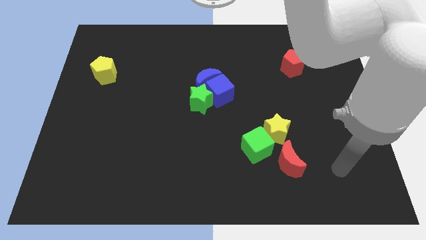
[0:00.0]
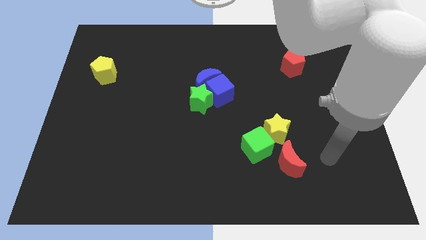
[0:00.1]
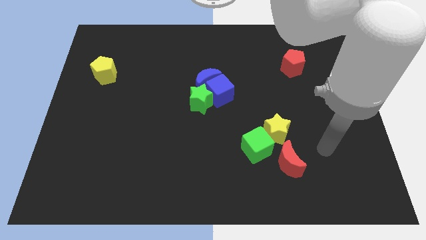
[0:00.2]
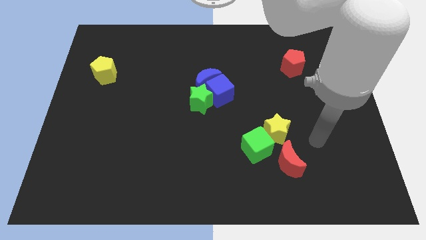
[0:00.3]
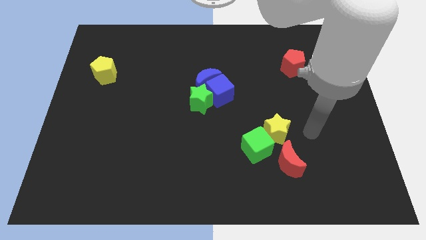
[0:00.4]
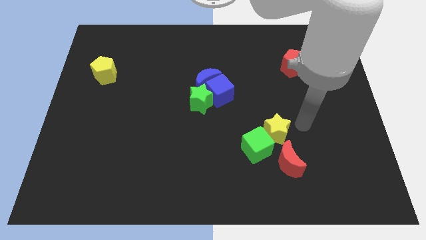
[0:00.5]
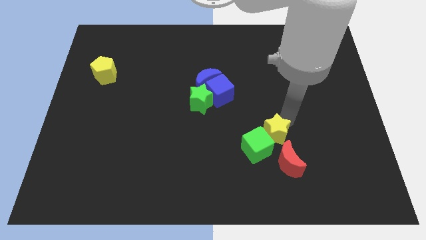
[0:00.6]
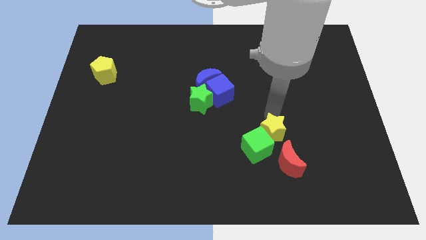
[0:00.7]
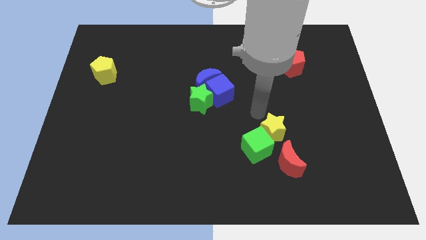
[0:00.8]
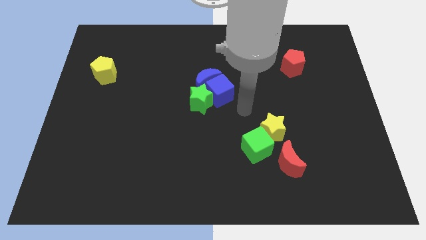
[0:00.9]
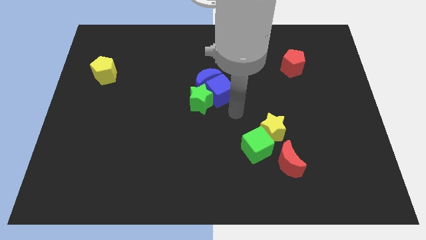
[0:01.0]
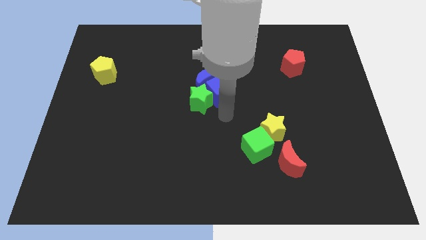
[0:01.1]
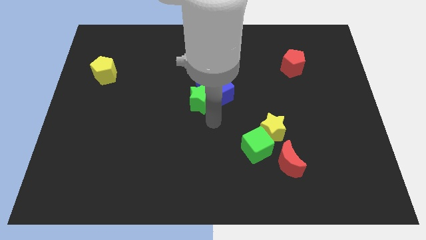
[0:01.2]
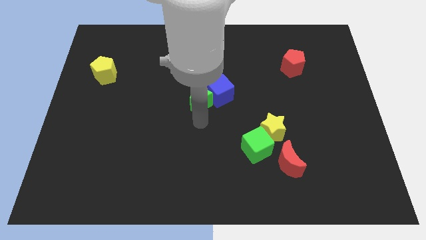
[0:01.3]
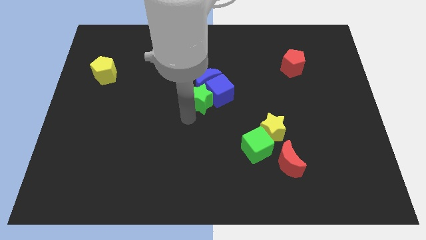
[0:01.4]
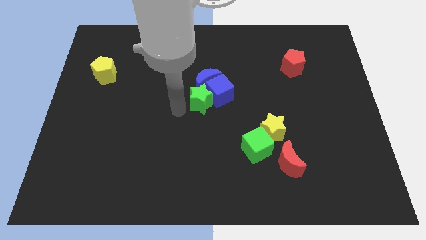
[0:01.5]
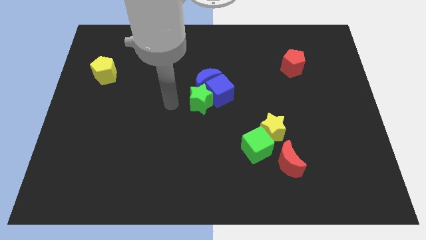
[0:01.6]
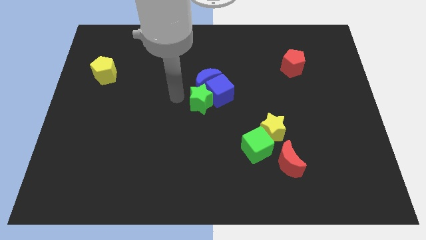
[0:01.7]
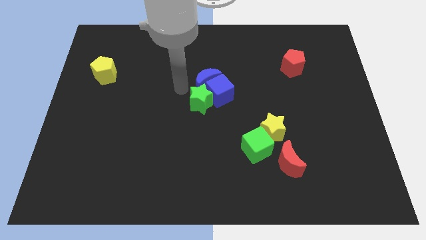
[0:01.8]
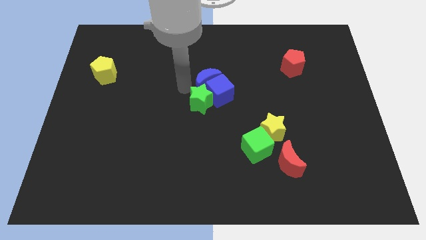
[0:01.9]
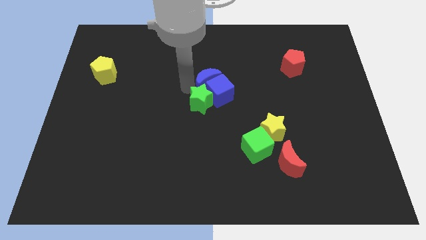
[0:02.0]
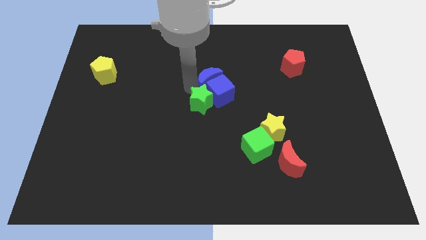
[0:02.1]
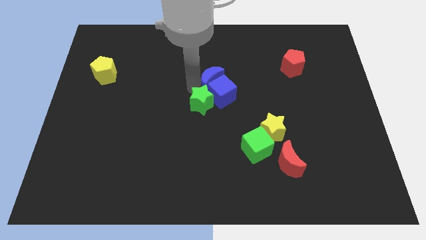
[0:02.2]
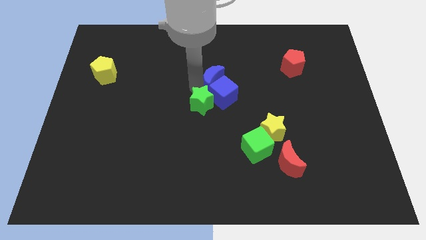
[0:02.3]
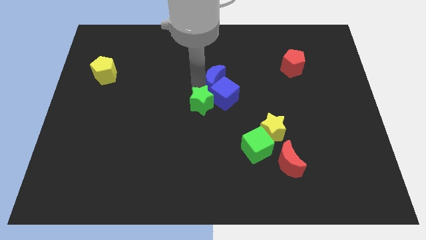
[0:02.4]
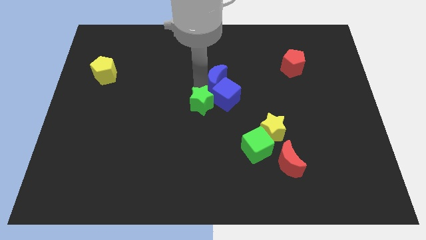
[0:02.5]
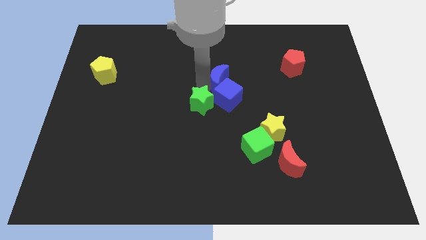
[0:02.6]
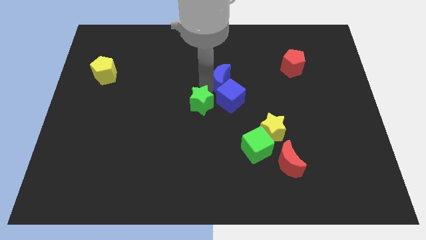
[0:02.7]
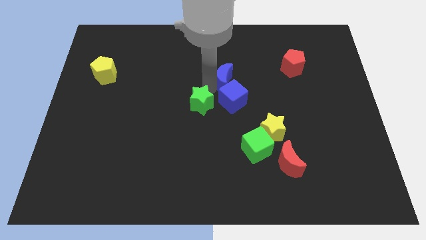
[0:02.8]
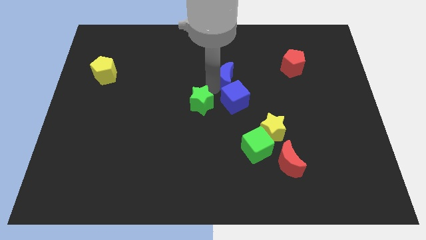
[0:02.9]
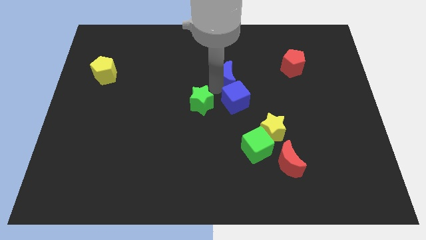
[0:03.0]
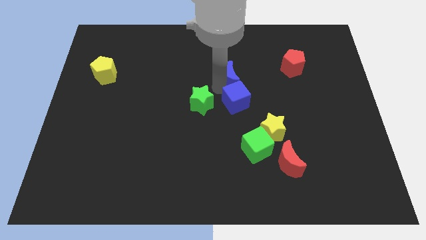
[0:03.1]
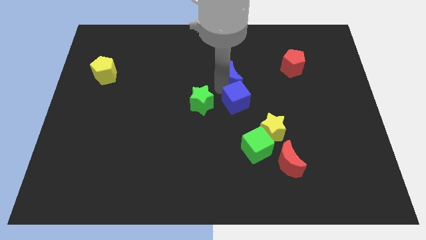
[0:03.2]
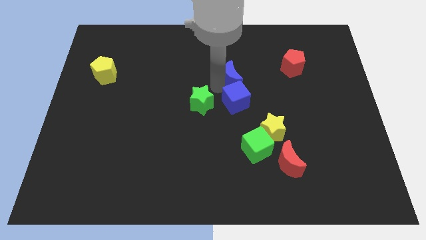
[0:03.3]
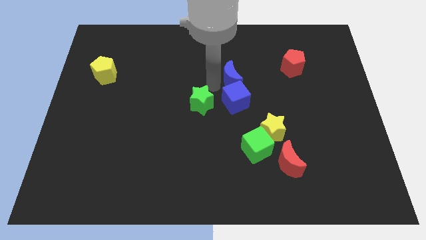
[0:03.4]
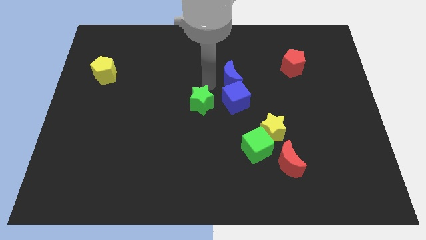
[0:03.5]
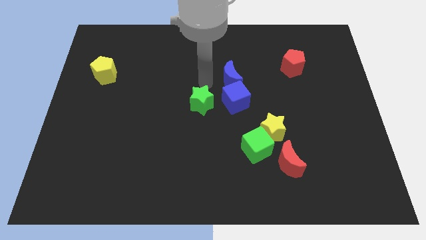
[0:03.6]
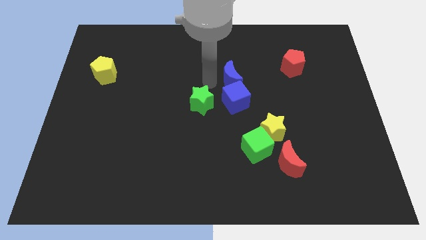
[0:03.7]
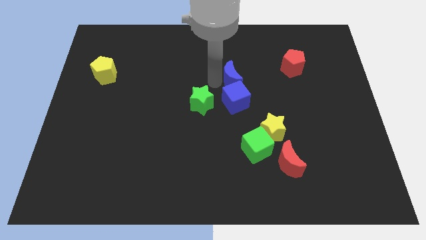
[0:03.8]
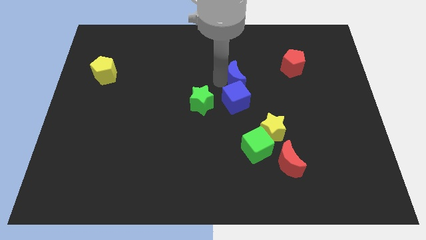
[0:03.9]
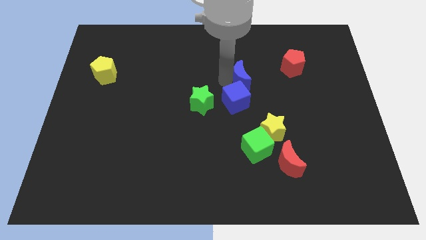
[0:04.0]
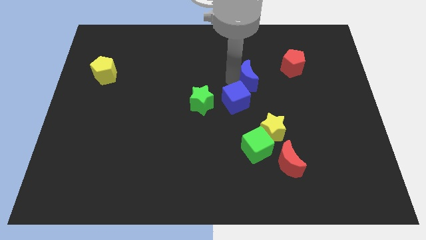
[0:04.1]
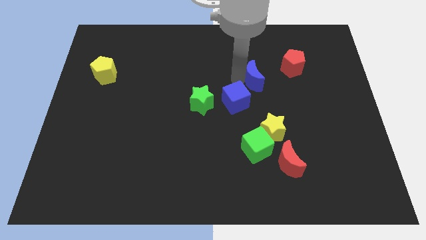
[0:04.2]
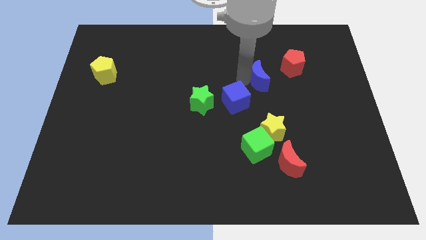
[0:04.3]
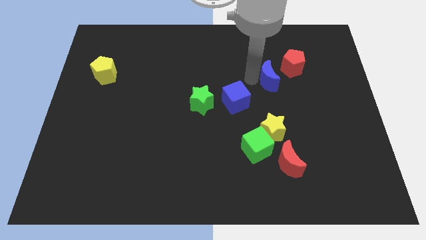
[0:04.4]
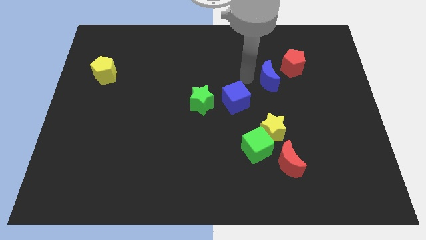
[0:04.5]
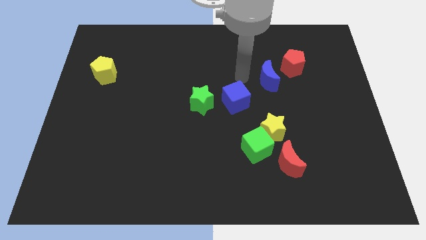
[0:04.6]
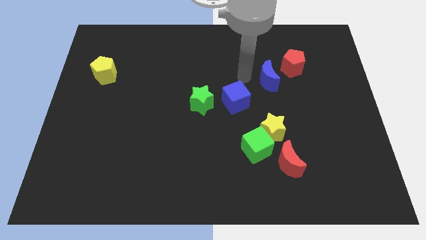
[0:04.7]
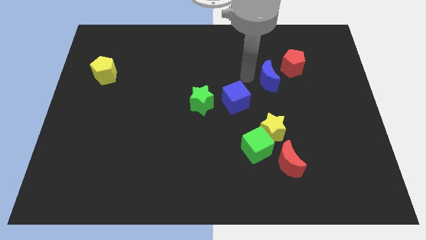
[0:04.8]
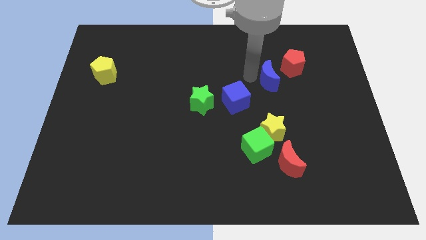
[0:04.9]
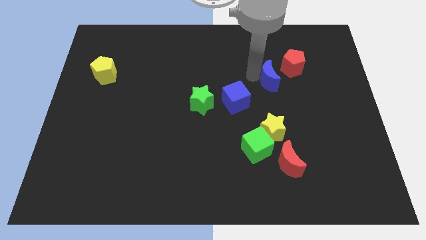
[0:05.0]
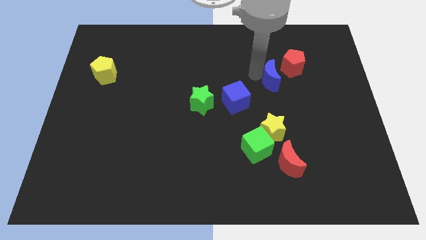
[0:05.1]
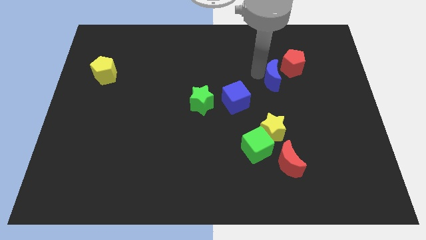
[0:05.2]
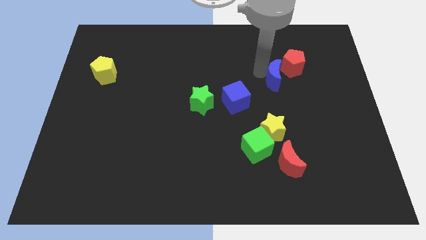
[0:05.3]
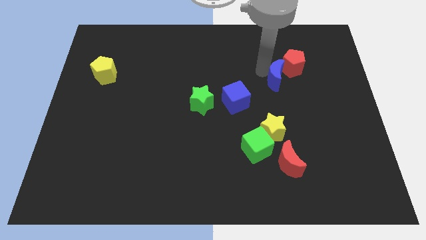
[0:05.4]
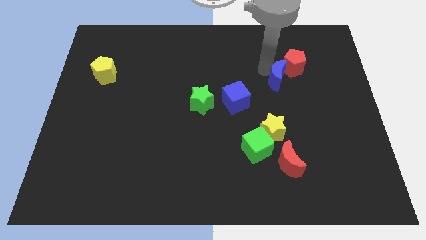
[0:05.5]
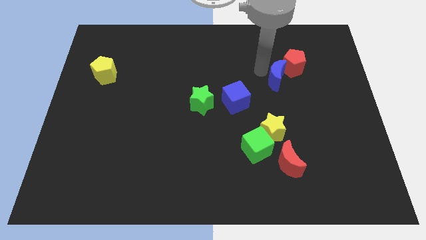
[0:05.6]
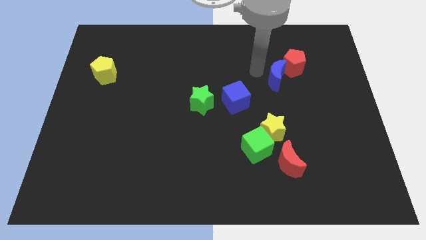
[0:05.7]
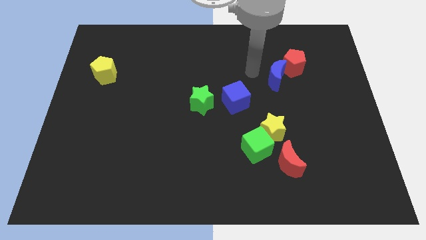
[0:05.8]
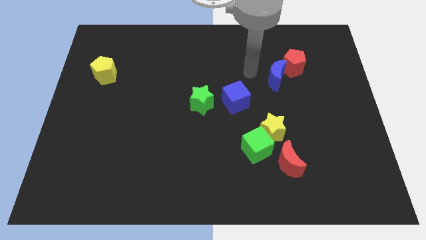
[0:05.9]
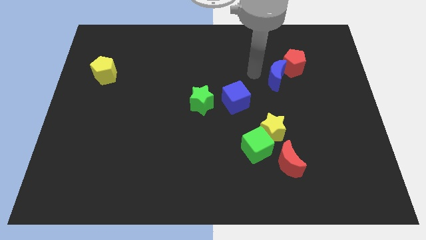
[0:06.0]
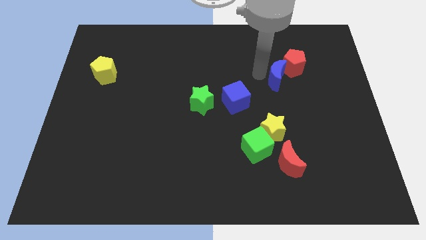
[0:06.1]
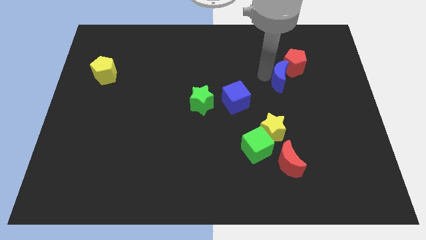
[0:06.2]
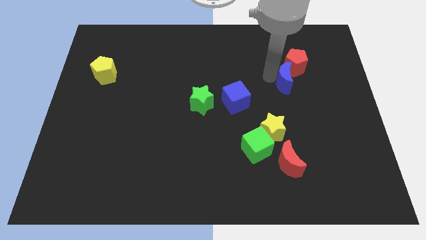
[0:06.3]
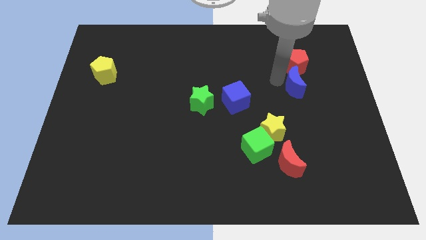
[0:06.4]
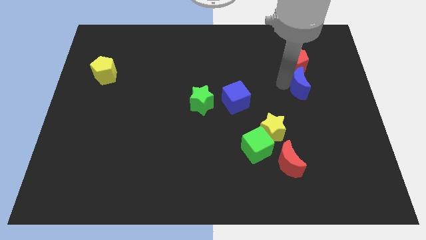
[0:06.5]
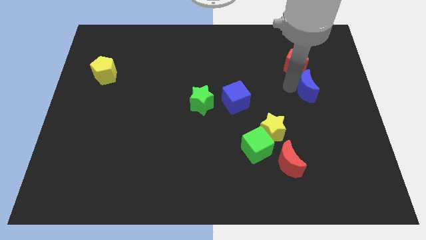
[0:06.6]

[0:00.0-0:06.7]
slide the blue moon diagonally down and to the right of the red pentagon

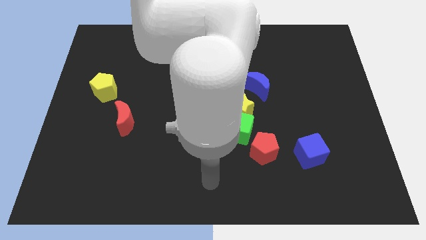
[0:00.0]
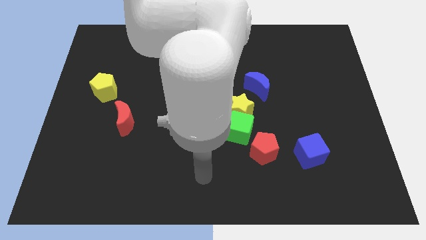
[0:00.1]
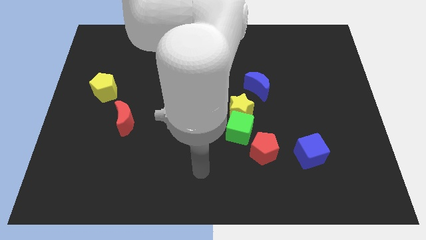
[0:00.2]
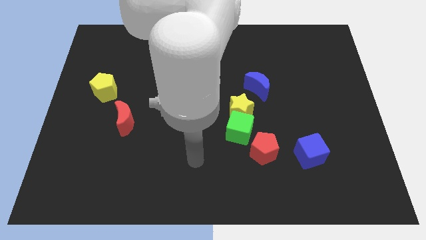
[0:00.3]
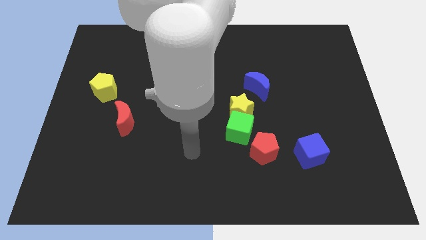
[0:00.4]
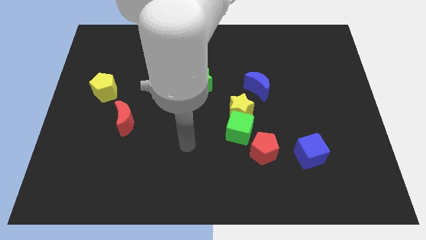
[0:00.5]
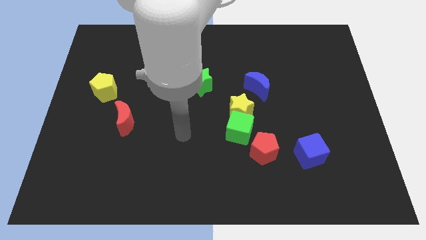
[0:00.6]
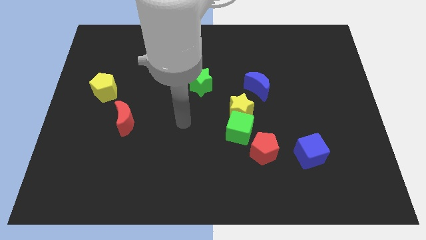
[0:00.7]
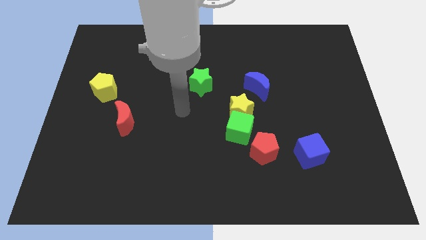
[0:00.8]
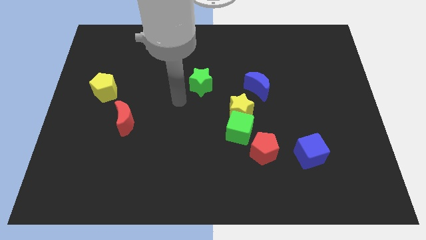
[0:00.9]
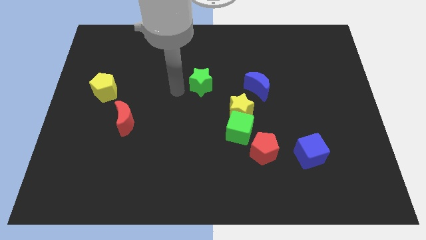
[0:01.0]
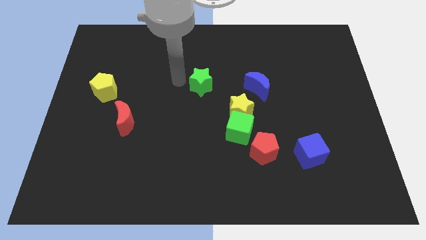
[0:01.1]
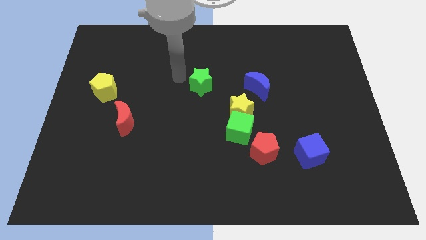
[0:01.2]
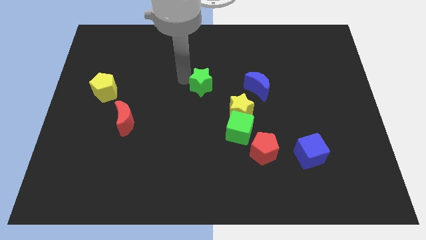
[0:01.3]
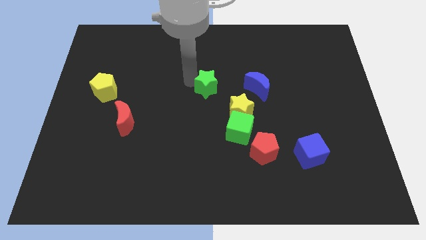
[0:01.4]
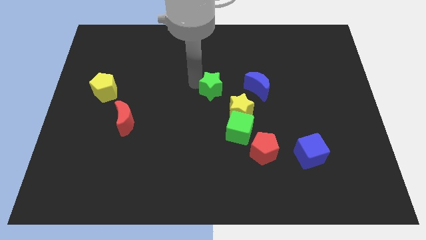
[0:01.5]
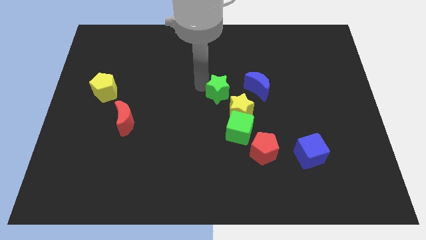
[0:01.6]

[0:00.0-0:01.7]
push the green star to the top side of the green cube
